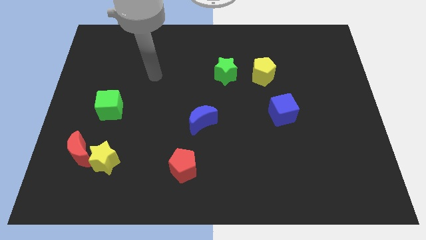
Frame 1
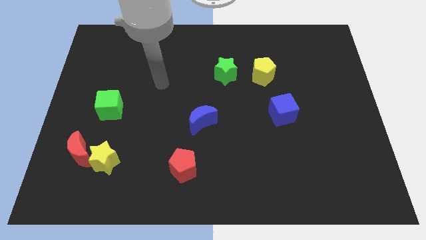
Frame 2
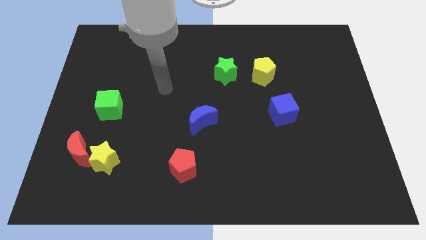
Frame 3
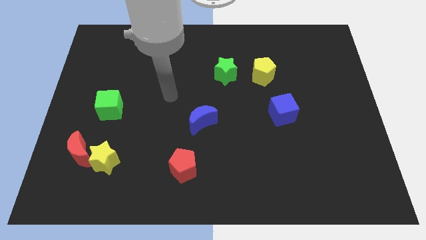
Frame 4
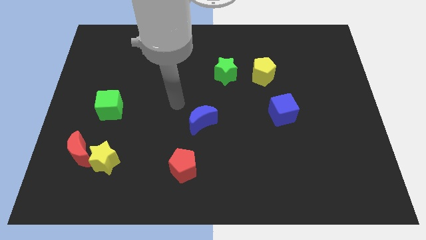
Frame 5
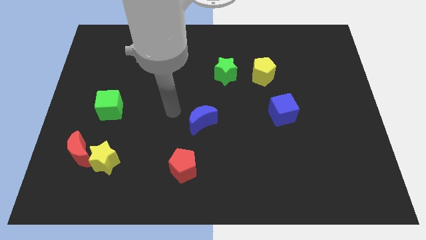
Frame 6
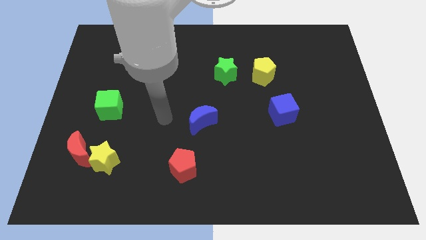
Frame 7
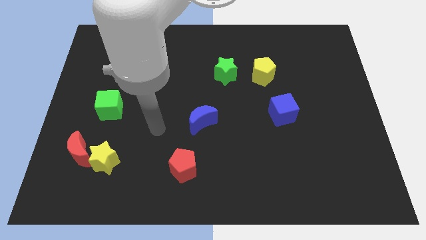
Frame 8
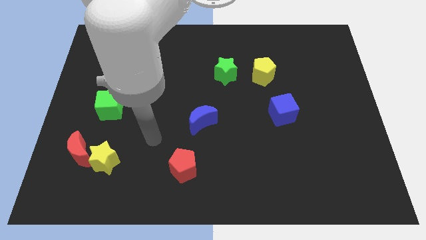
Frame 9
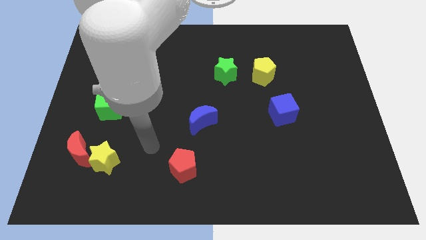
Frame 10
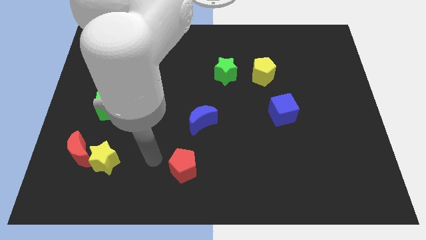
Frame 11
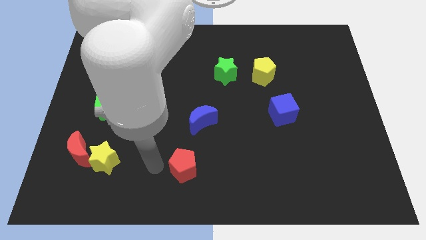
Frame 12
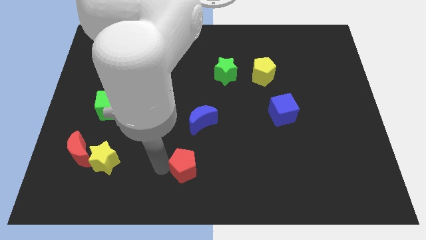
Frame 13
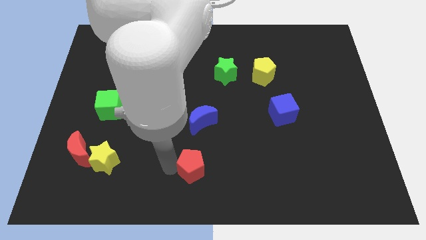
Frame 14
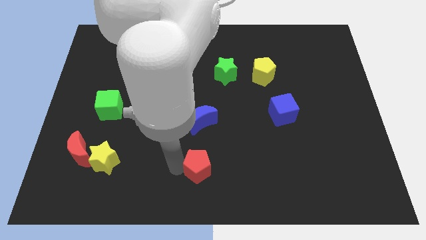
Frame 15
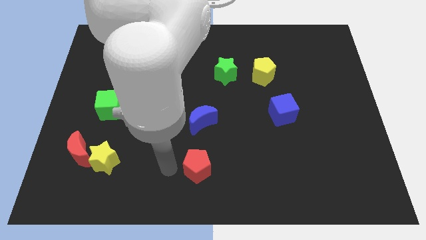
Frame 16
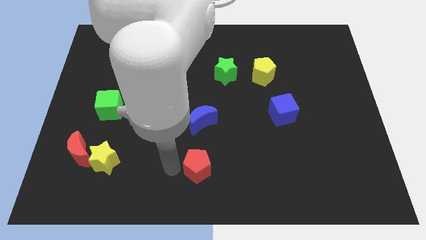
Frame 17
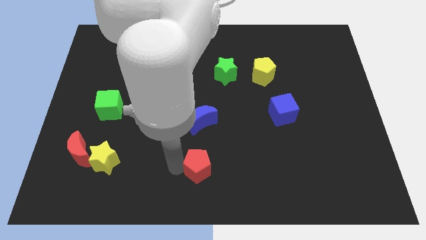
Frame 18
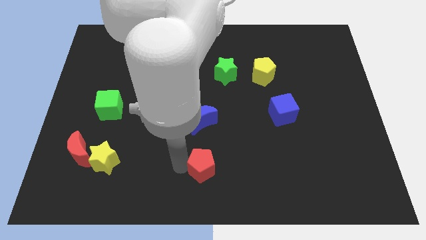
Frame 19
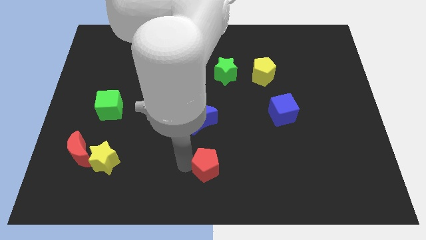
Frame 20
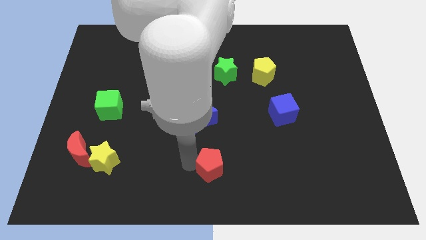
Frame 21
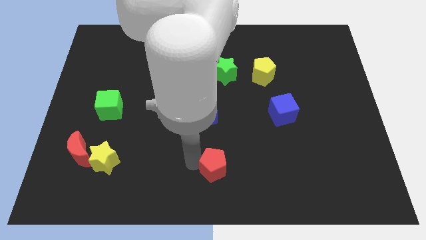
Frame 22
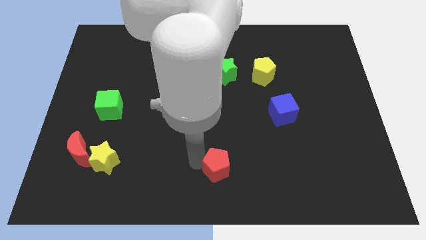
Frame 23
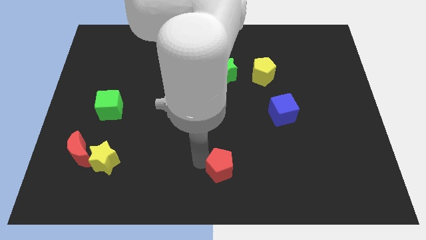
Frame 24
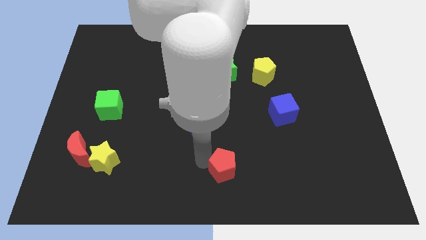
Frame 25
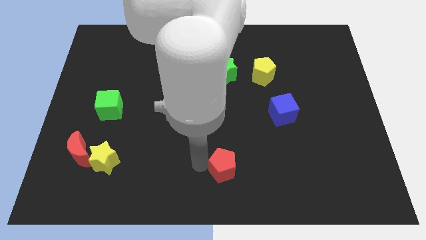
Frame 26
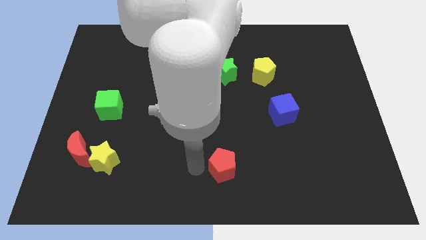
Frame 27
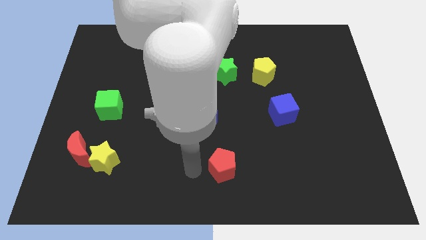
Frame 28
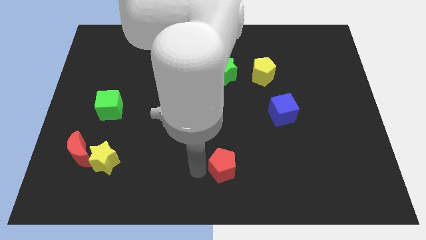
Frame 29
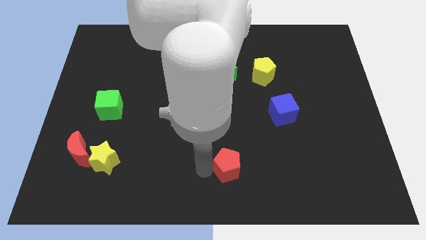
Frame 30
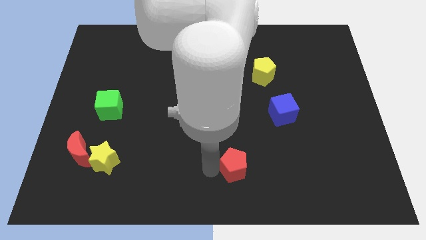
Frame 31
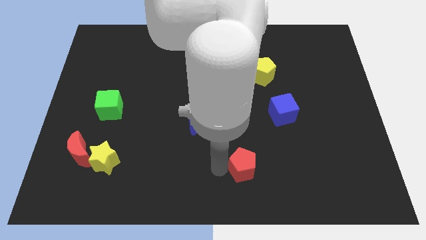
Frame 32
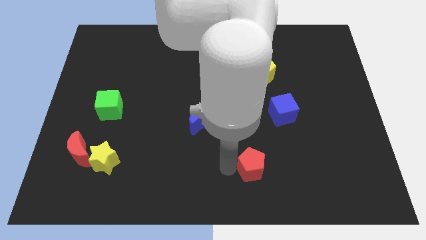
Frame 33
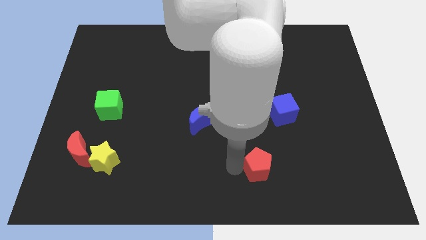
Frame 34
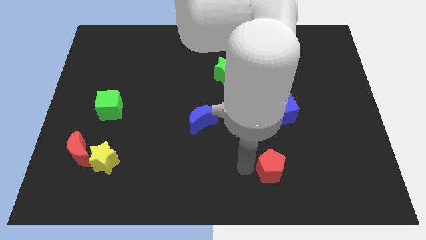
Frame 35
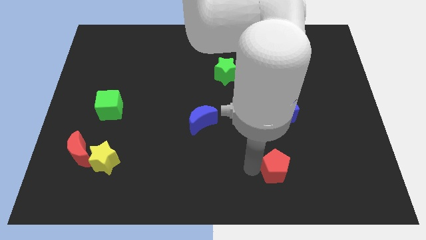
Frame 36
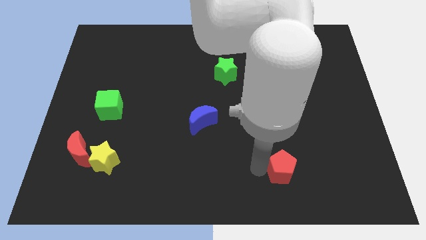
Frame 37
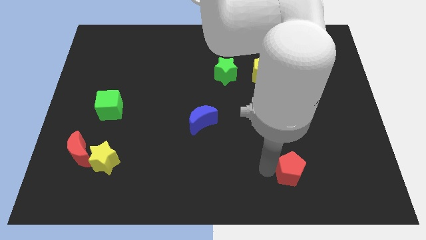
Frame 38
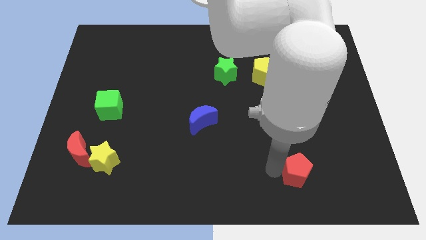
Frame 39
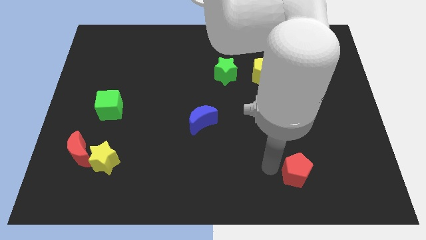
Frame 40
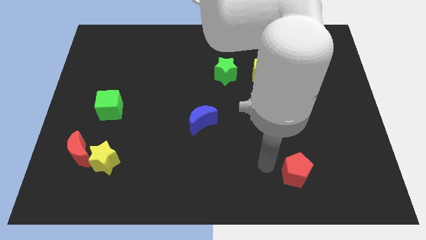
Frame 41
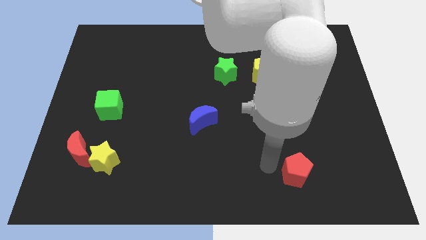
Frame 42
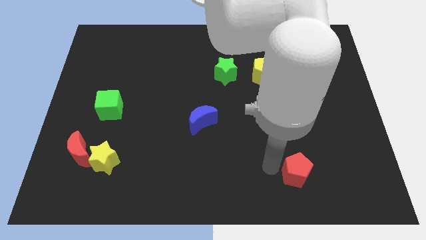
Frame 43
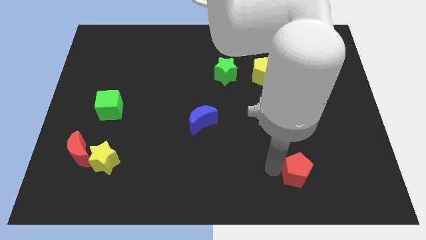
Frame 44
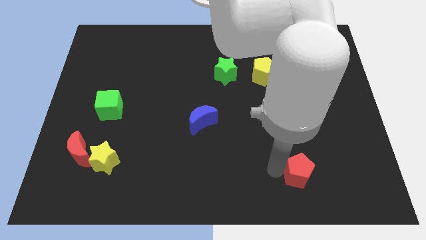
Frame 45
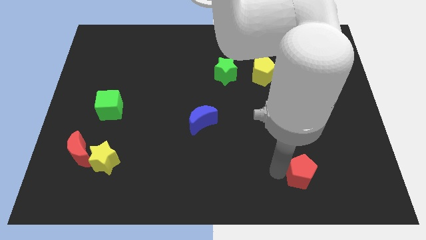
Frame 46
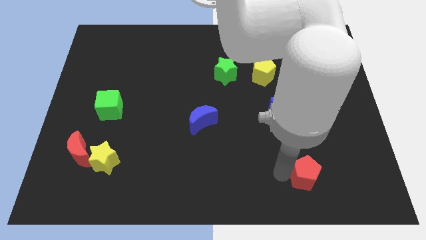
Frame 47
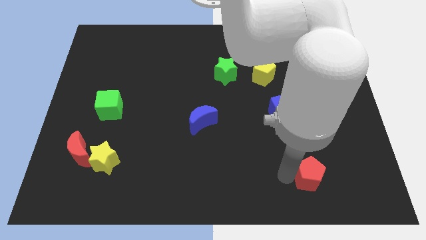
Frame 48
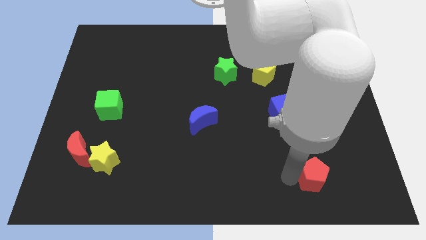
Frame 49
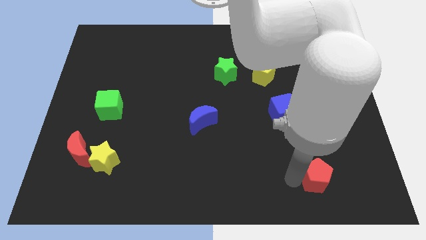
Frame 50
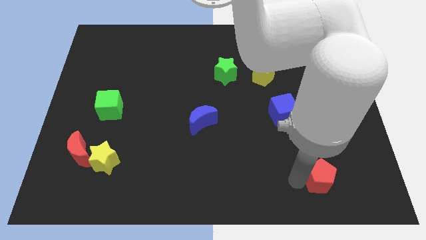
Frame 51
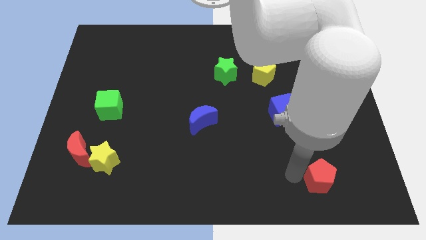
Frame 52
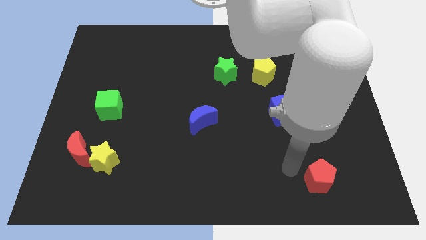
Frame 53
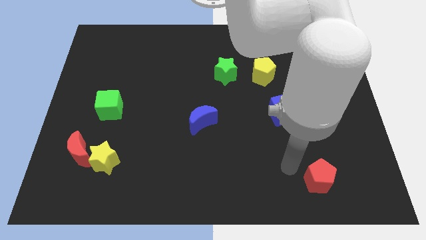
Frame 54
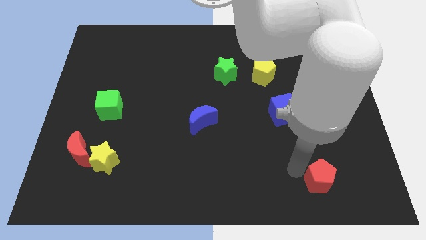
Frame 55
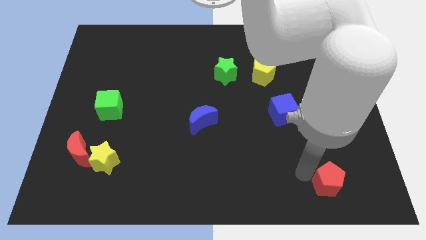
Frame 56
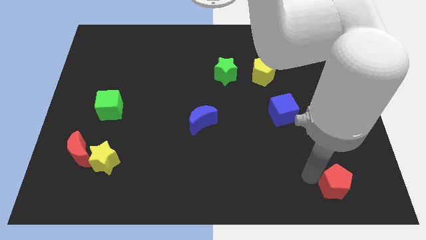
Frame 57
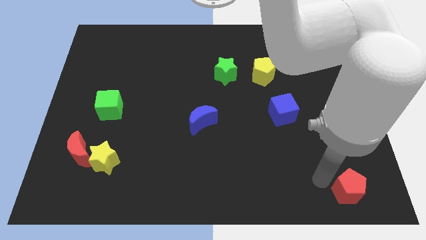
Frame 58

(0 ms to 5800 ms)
put the red pentagon to the bottom right corner
